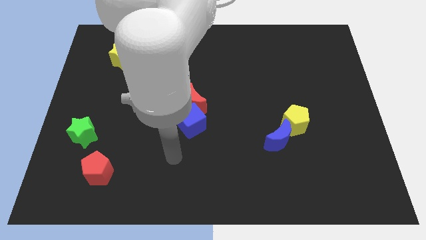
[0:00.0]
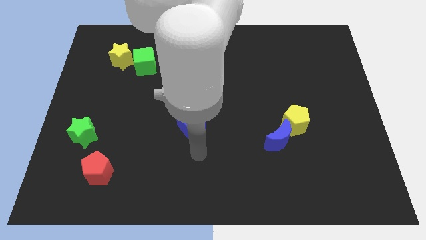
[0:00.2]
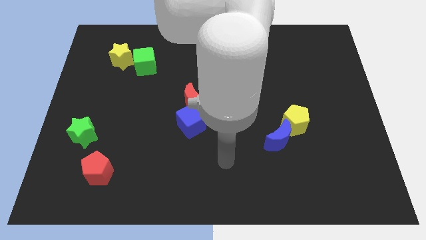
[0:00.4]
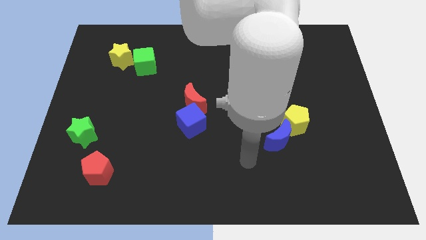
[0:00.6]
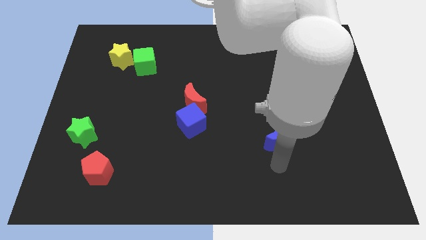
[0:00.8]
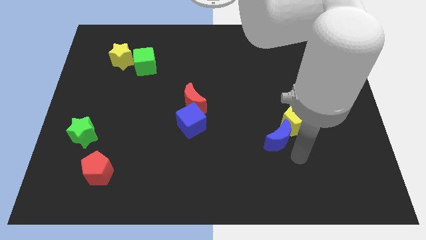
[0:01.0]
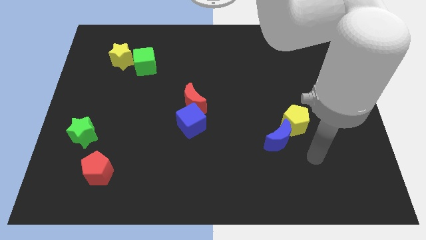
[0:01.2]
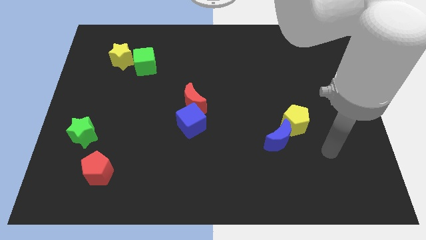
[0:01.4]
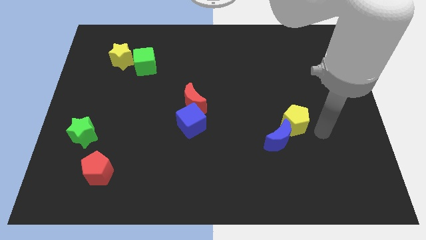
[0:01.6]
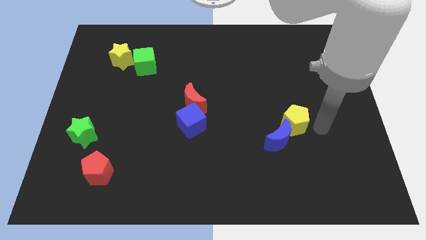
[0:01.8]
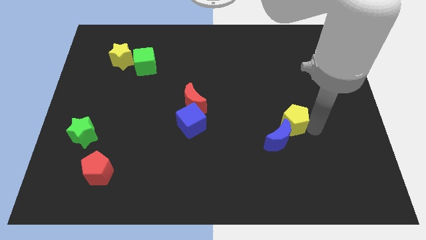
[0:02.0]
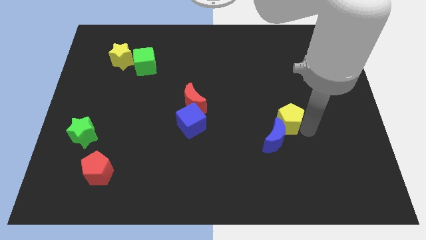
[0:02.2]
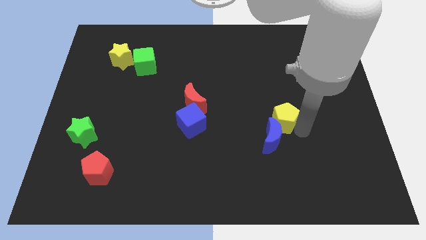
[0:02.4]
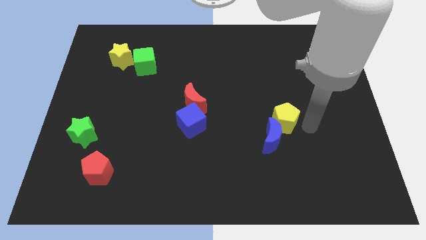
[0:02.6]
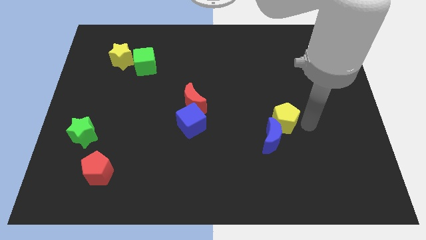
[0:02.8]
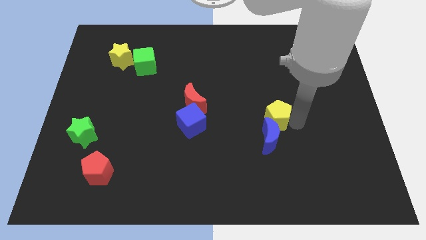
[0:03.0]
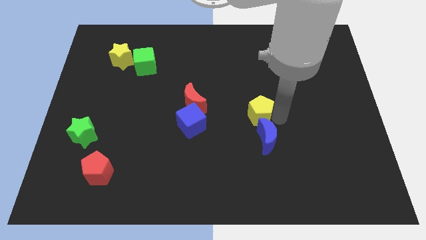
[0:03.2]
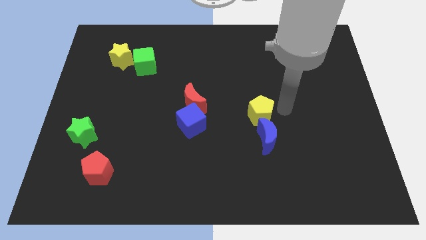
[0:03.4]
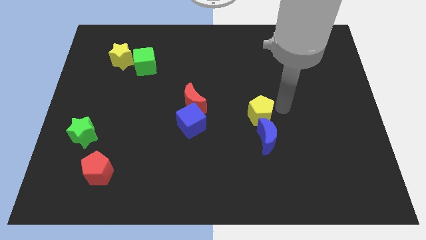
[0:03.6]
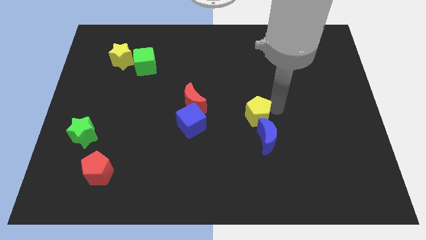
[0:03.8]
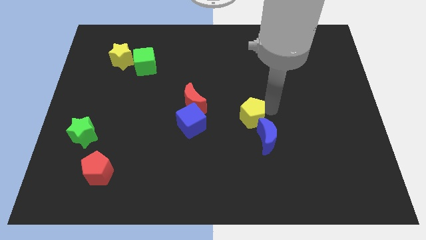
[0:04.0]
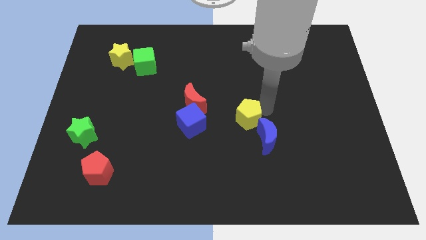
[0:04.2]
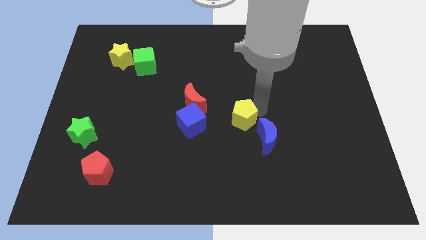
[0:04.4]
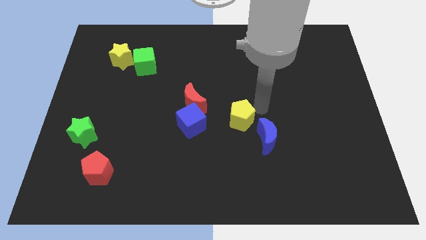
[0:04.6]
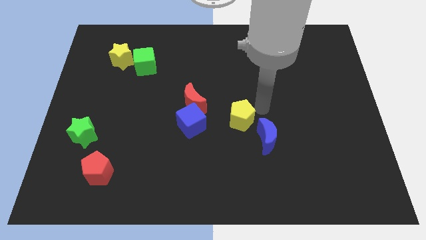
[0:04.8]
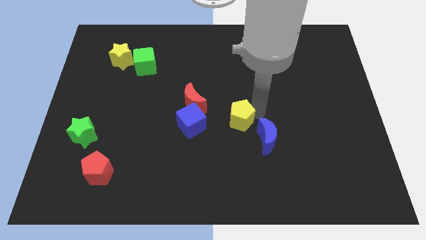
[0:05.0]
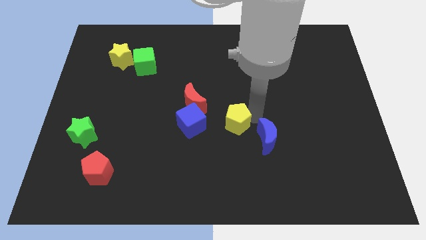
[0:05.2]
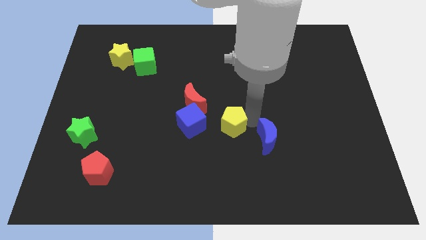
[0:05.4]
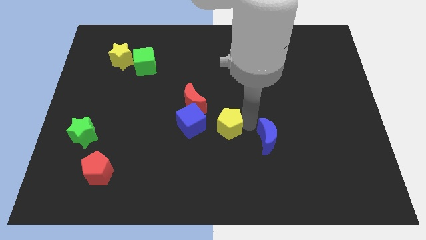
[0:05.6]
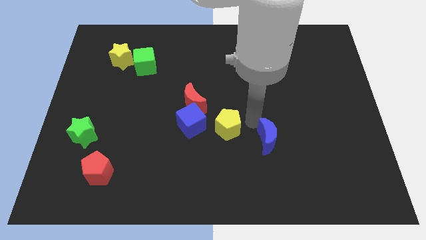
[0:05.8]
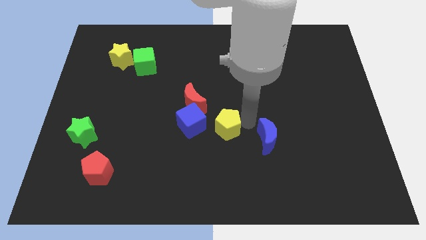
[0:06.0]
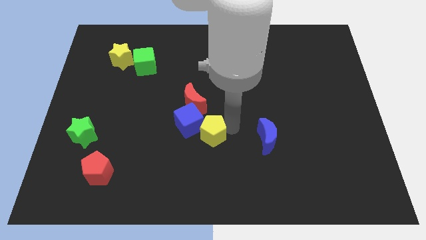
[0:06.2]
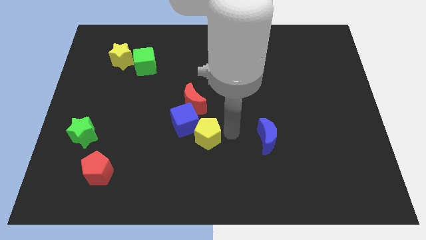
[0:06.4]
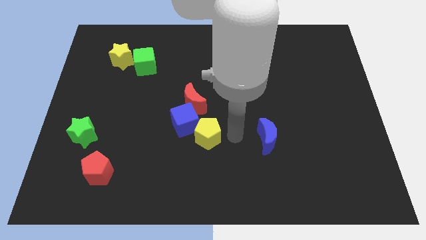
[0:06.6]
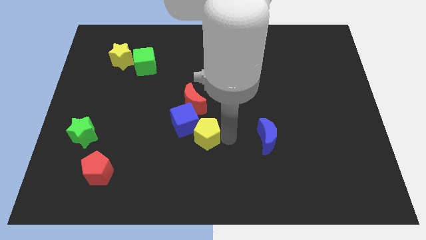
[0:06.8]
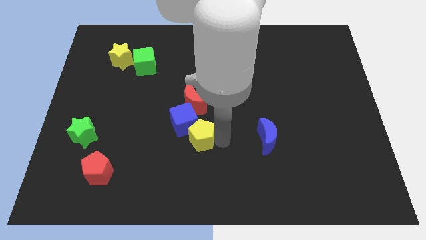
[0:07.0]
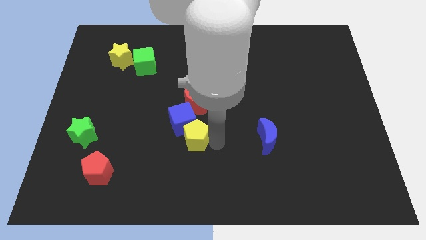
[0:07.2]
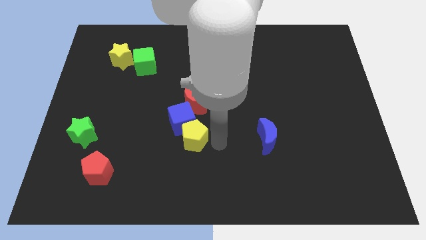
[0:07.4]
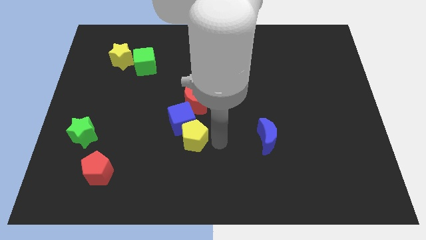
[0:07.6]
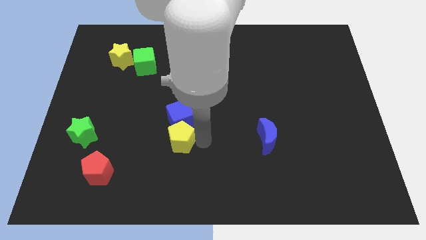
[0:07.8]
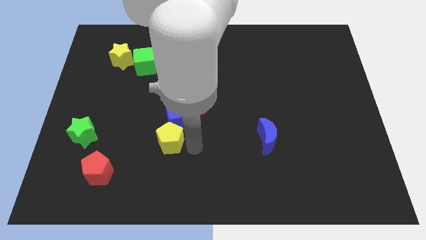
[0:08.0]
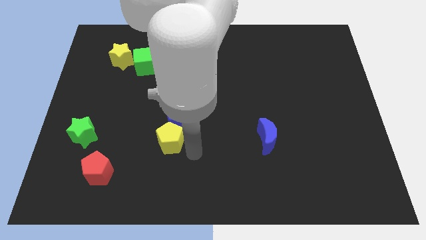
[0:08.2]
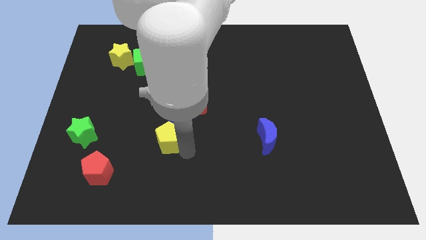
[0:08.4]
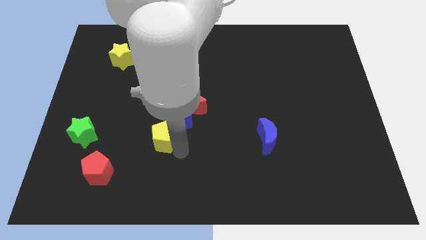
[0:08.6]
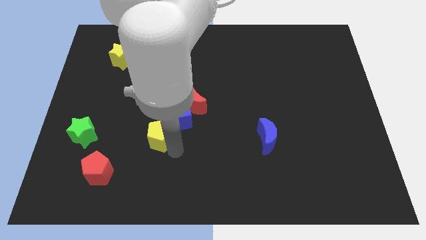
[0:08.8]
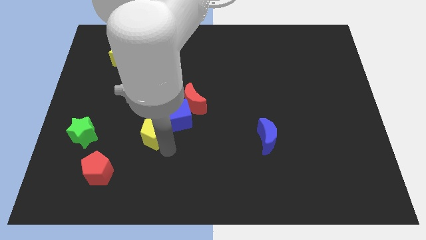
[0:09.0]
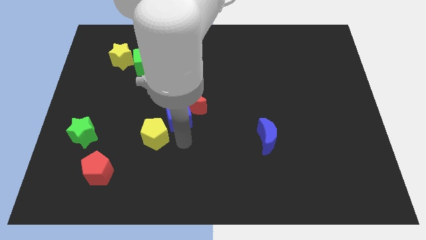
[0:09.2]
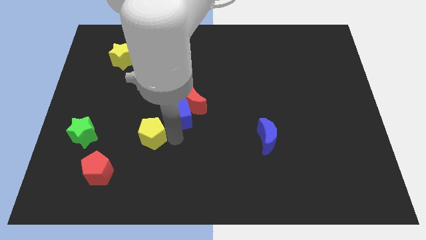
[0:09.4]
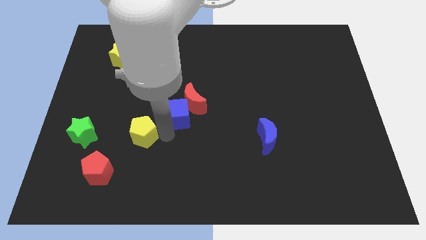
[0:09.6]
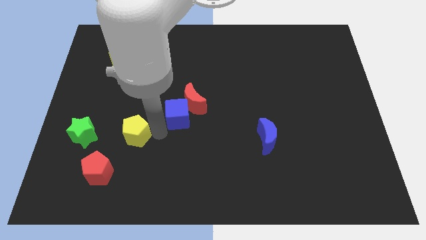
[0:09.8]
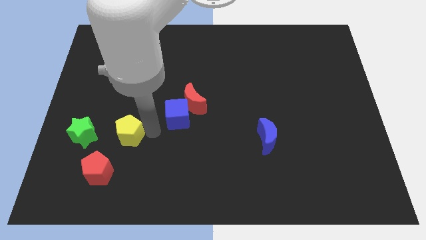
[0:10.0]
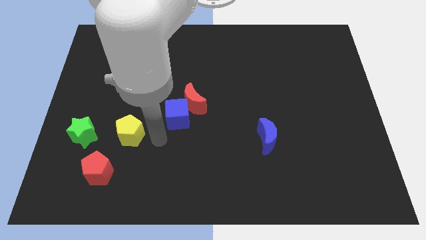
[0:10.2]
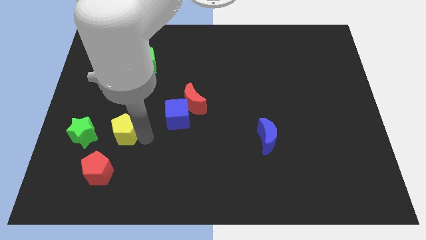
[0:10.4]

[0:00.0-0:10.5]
move the yellow pentagon to the top of the red pentagon

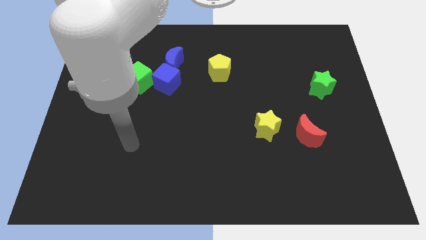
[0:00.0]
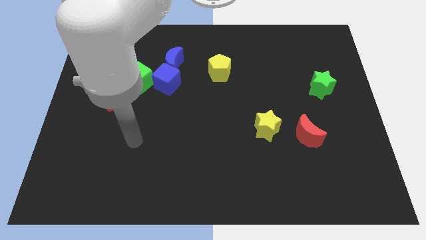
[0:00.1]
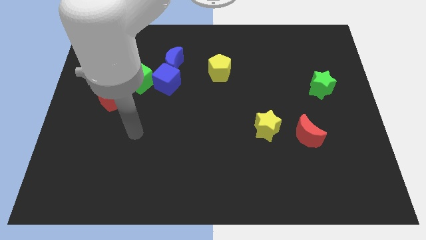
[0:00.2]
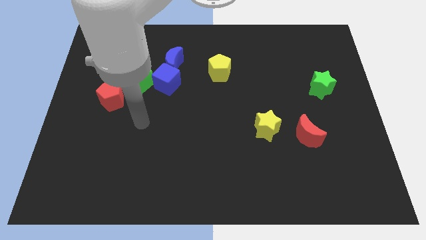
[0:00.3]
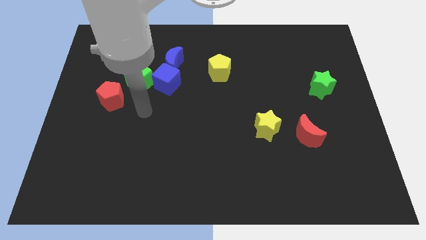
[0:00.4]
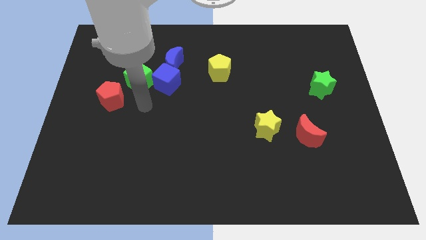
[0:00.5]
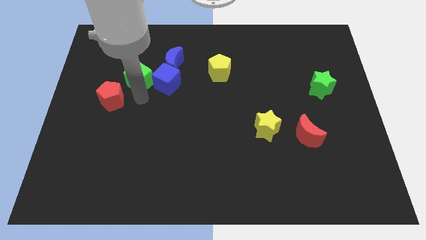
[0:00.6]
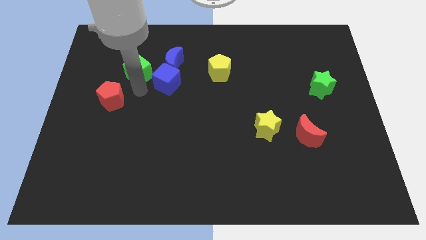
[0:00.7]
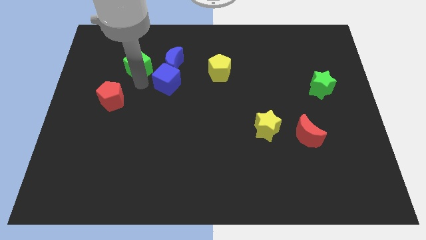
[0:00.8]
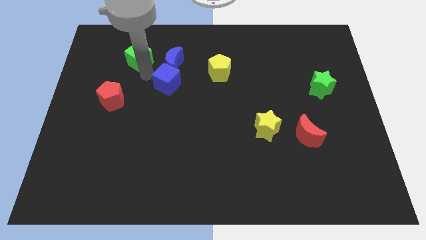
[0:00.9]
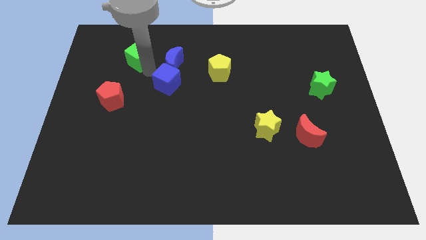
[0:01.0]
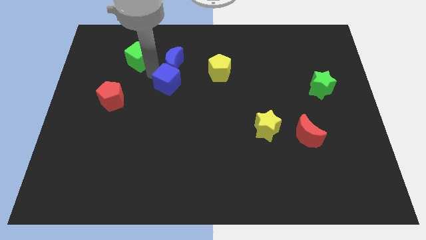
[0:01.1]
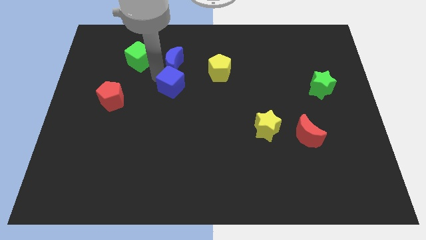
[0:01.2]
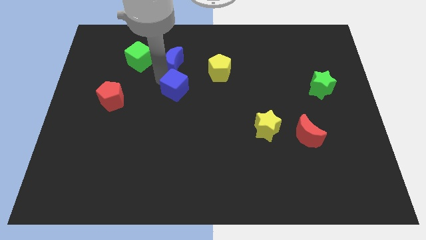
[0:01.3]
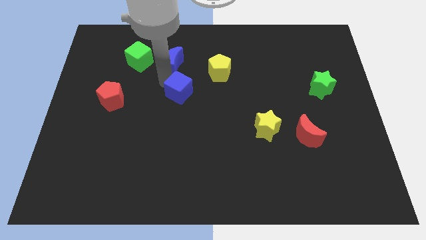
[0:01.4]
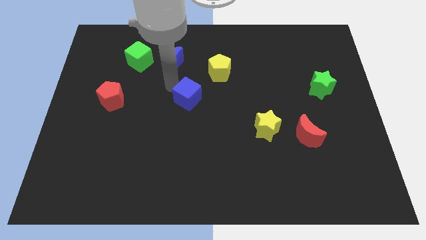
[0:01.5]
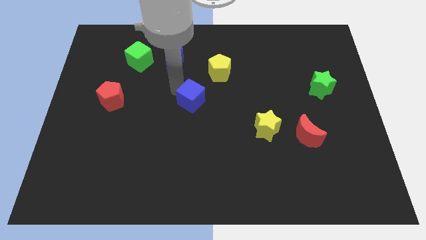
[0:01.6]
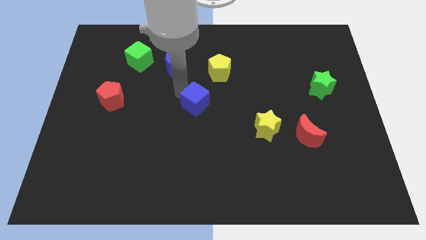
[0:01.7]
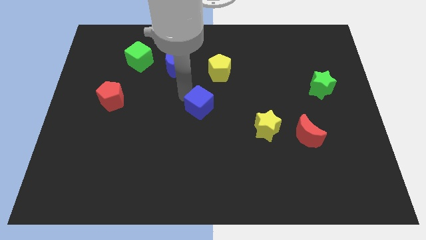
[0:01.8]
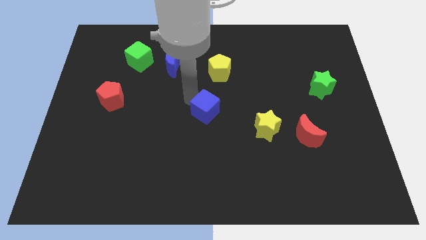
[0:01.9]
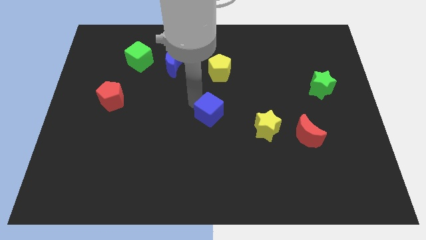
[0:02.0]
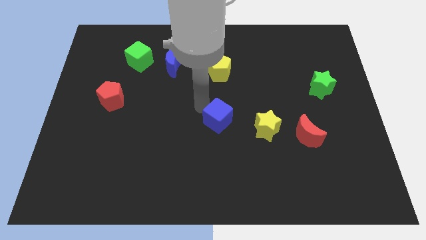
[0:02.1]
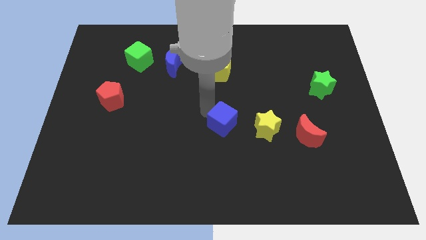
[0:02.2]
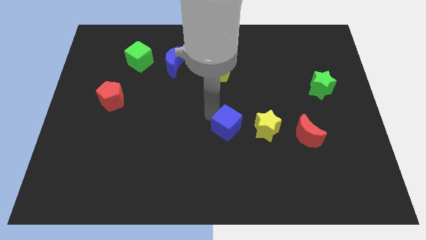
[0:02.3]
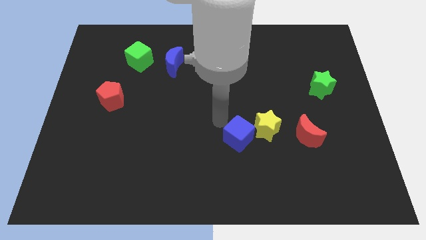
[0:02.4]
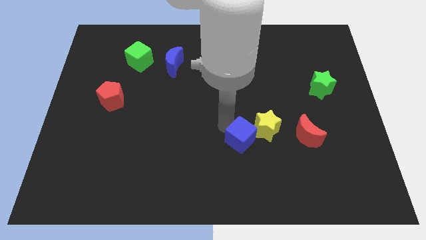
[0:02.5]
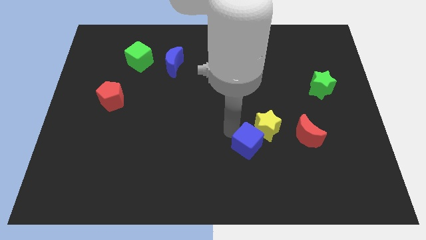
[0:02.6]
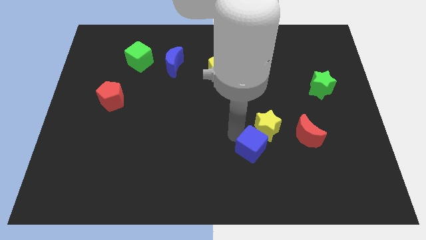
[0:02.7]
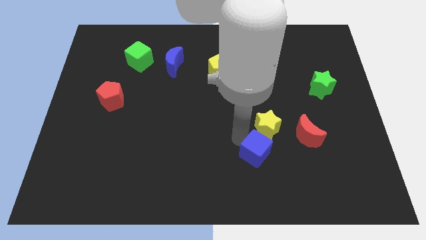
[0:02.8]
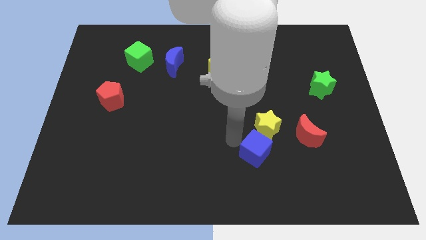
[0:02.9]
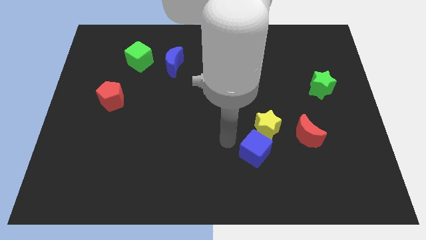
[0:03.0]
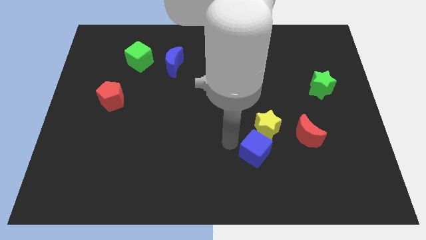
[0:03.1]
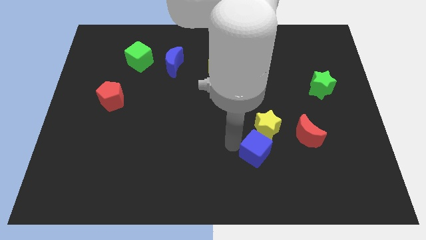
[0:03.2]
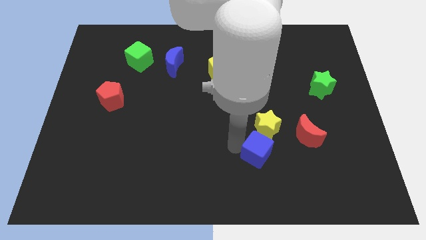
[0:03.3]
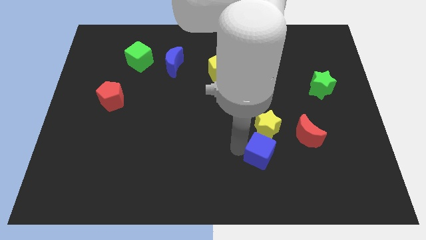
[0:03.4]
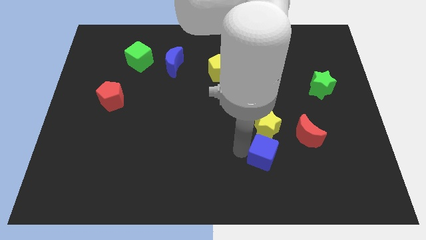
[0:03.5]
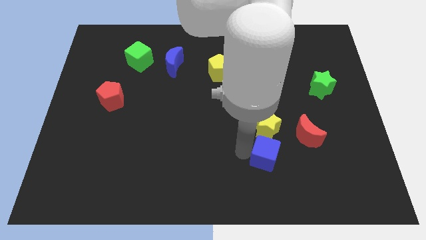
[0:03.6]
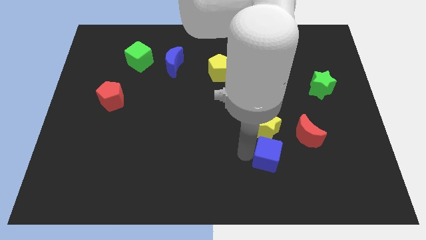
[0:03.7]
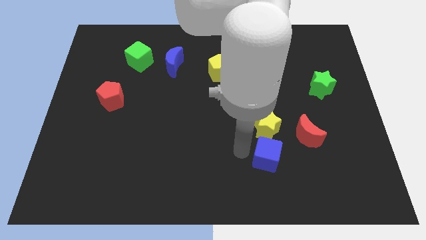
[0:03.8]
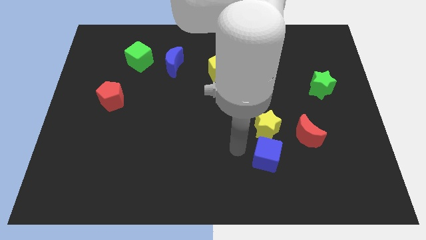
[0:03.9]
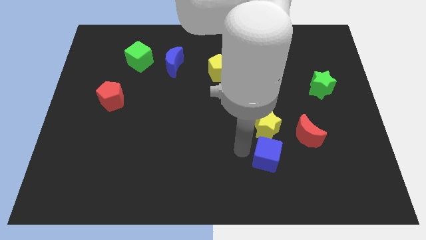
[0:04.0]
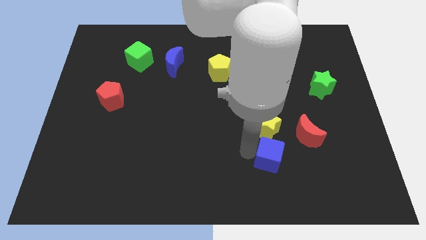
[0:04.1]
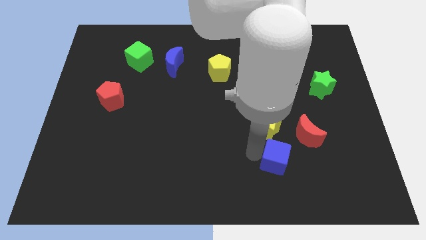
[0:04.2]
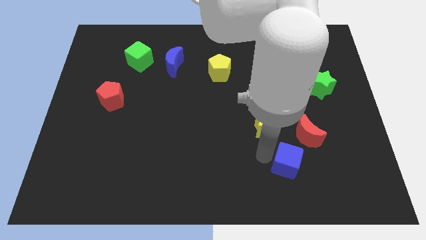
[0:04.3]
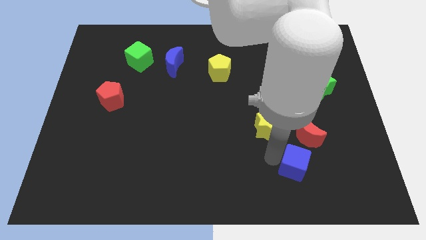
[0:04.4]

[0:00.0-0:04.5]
move the blue cube below the red moon
